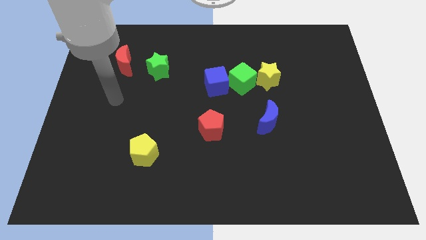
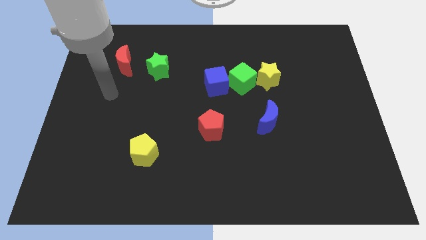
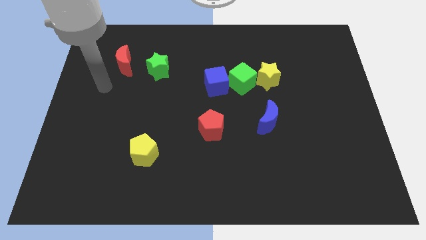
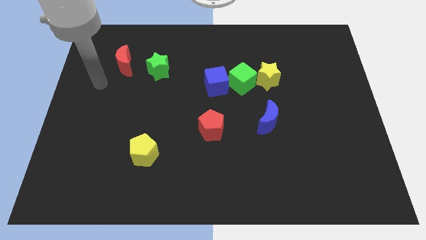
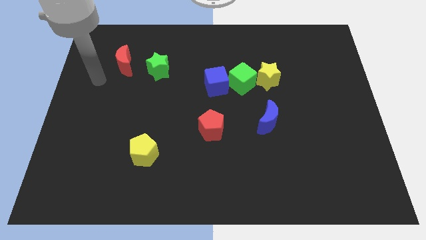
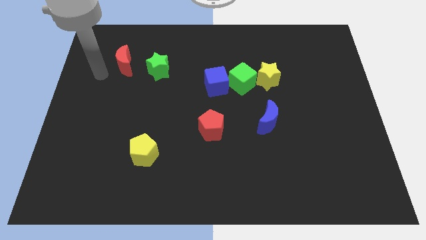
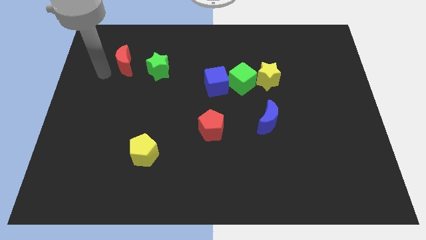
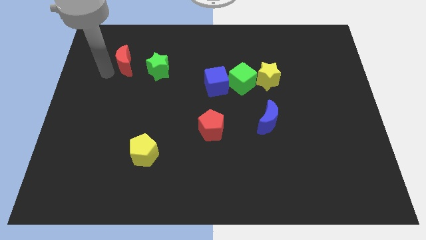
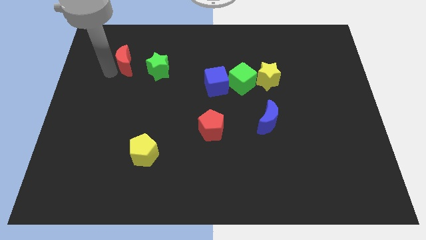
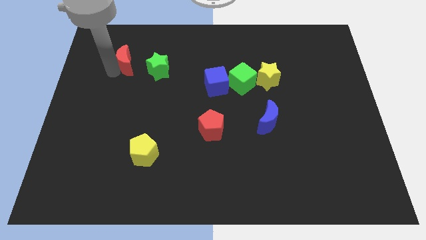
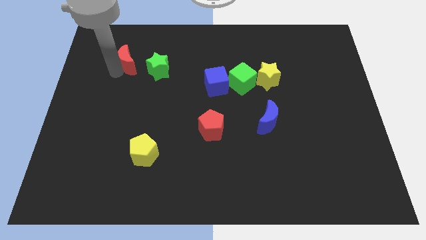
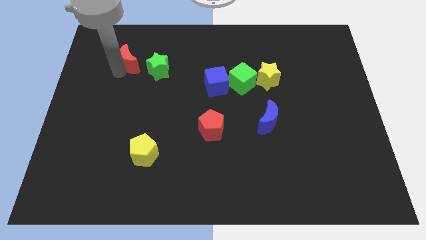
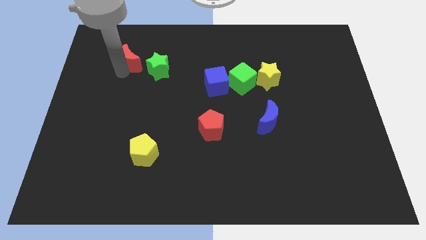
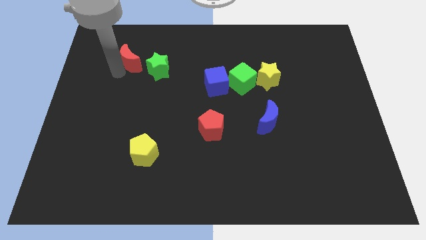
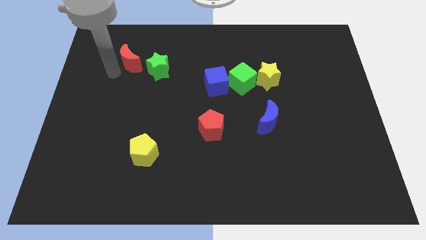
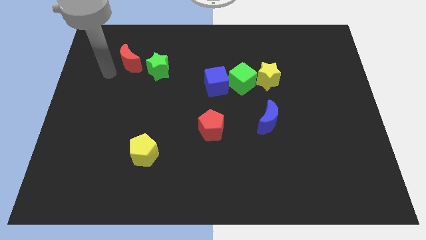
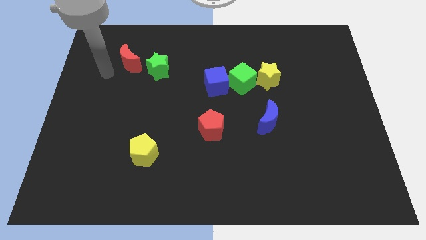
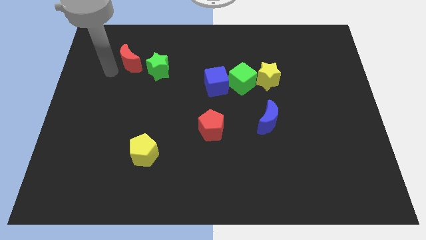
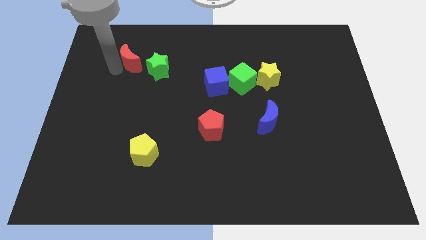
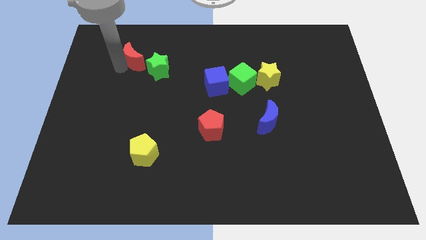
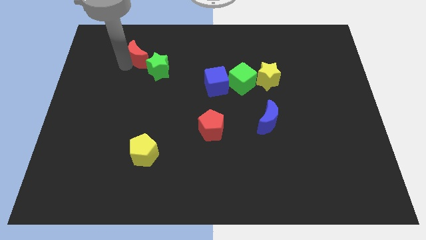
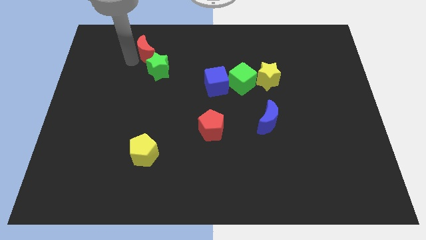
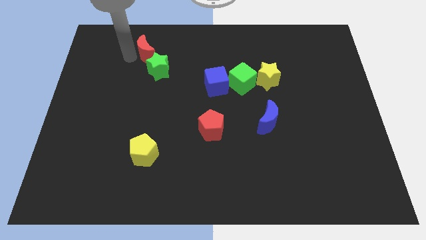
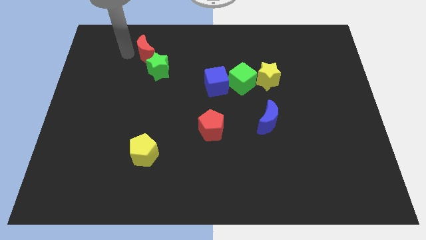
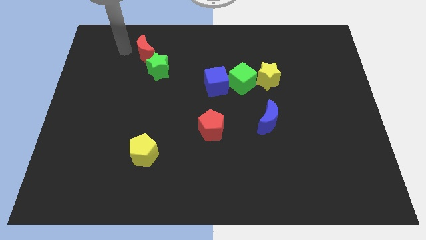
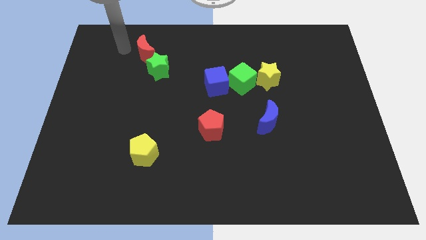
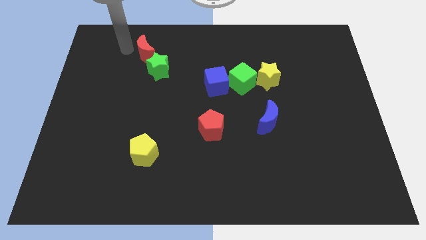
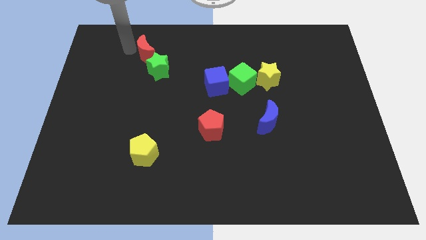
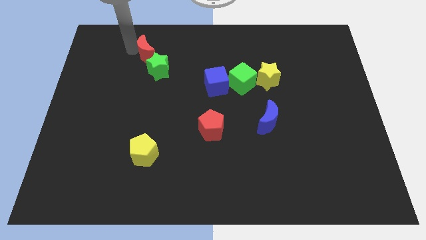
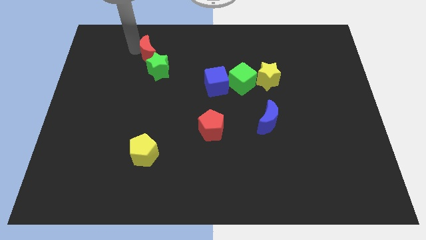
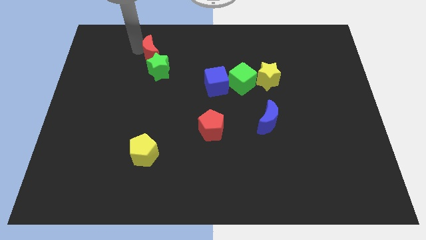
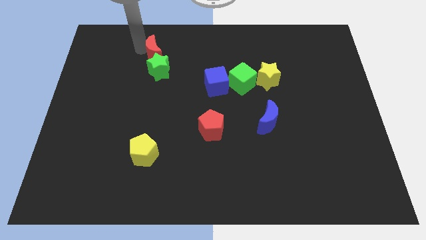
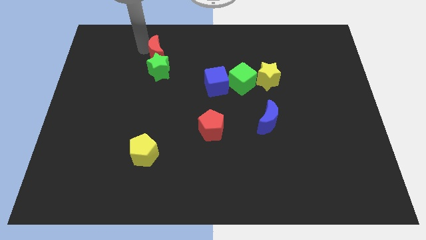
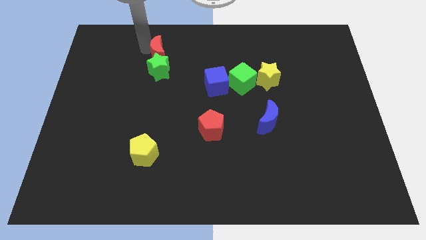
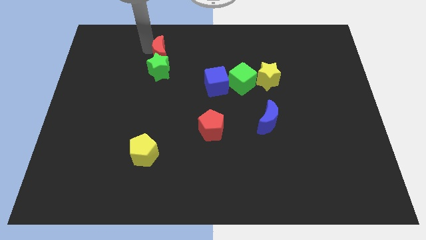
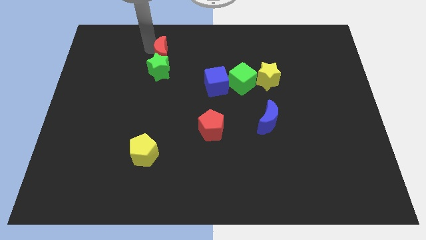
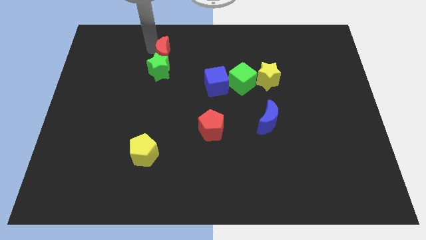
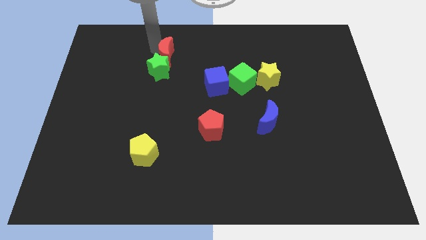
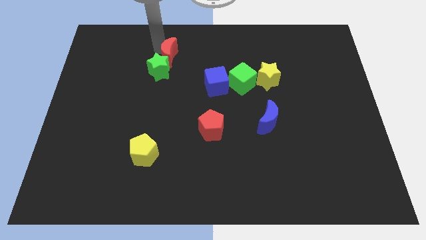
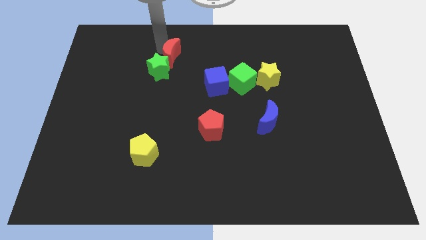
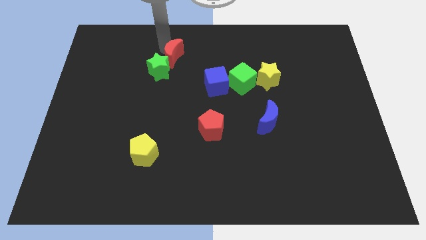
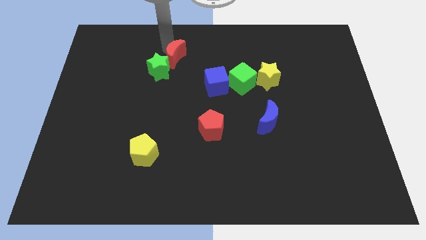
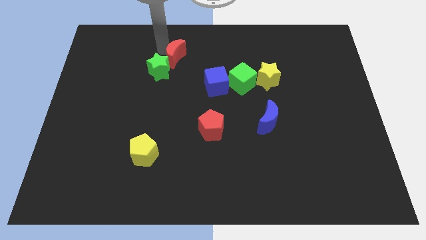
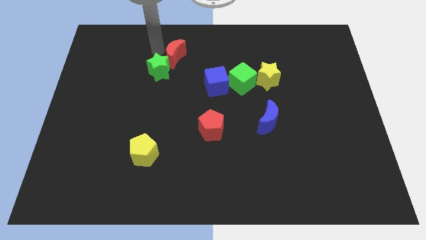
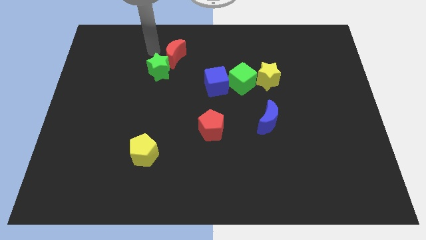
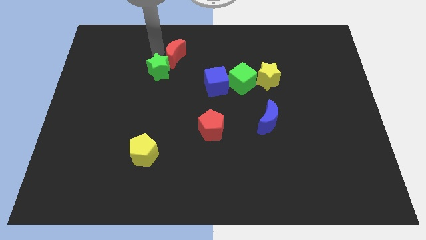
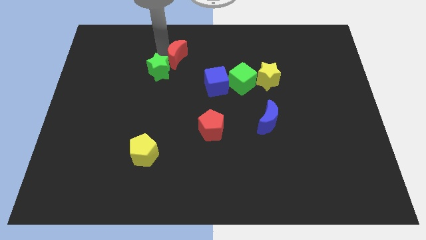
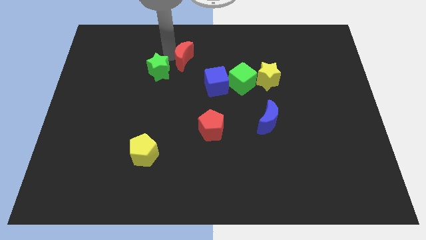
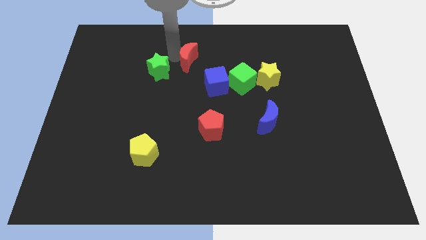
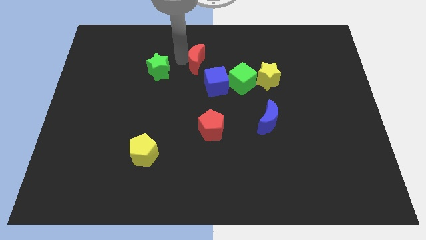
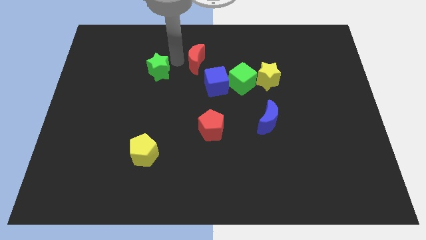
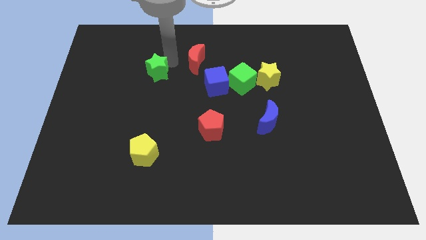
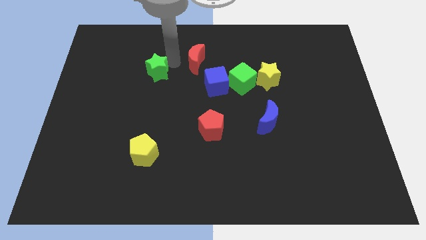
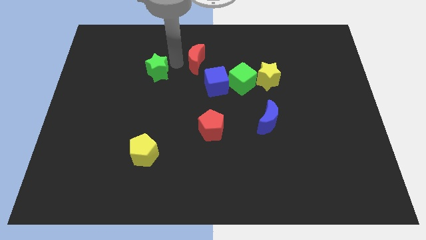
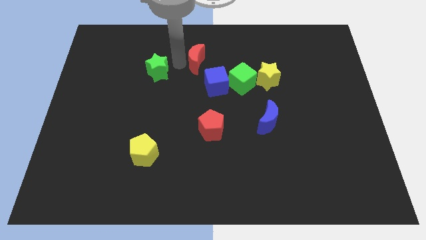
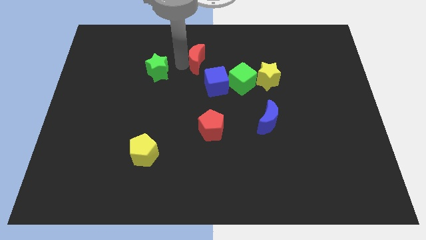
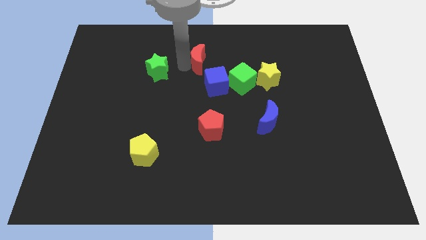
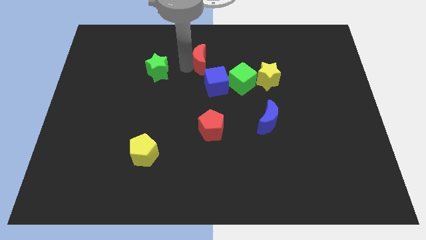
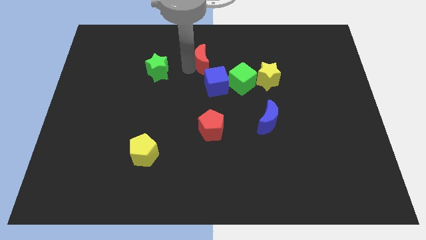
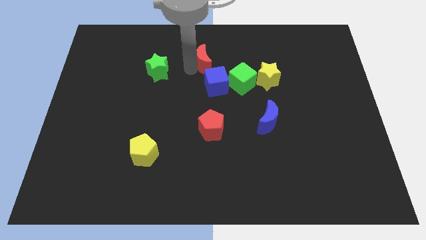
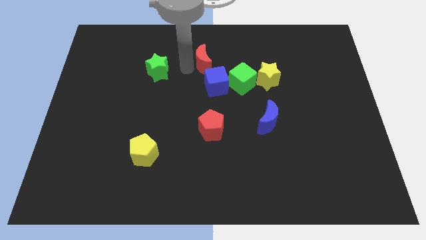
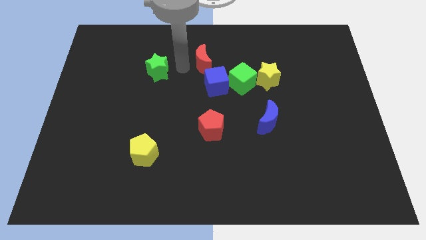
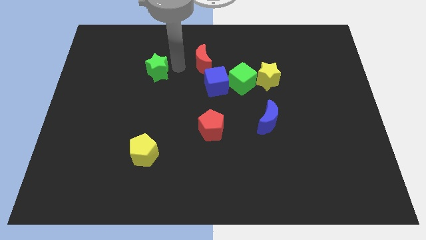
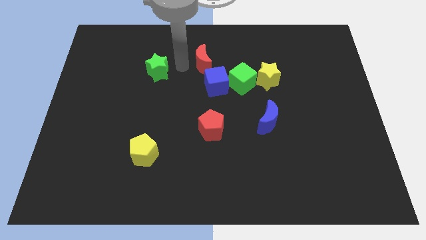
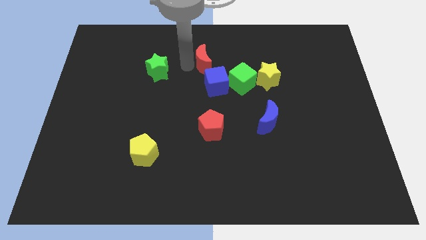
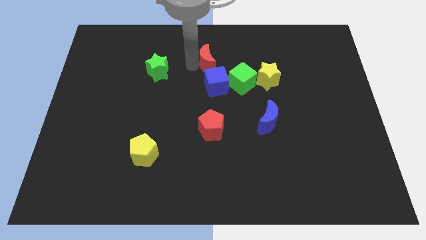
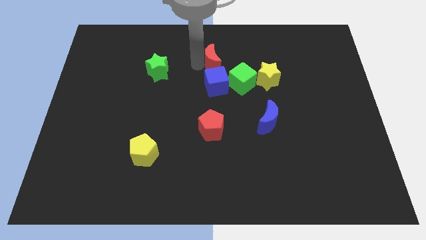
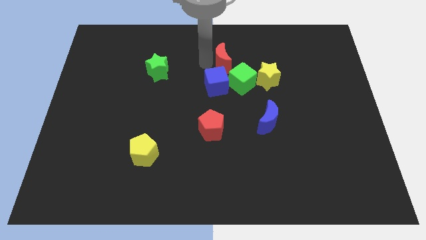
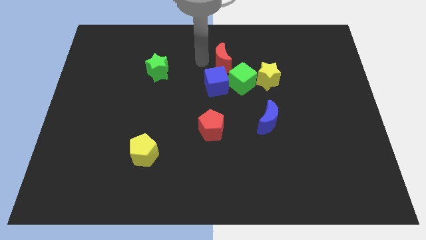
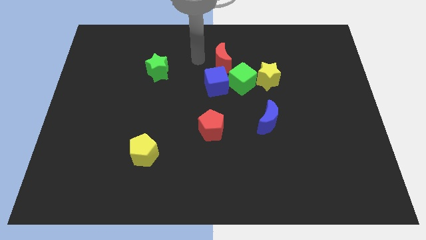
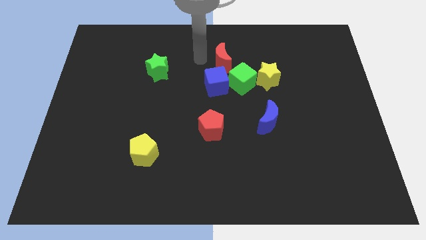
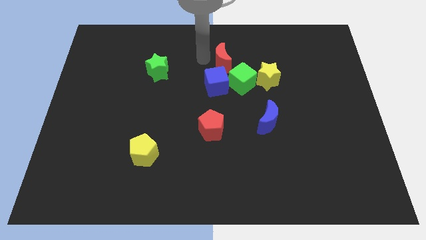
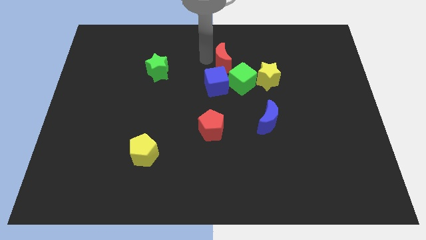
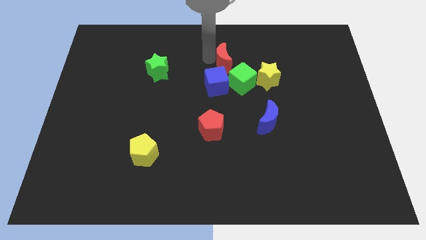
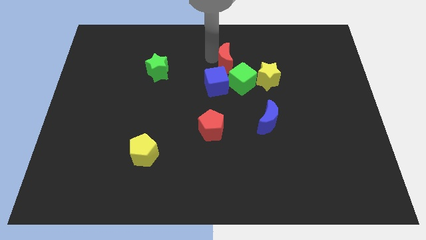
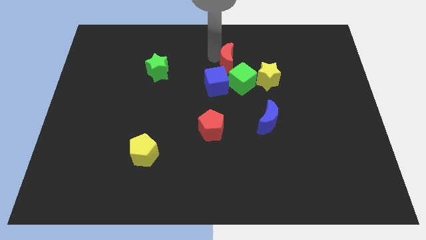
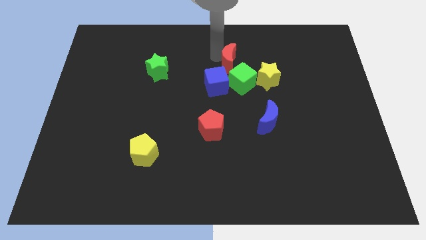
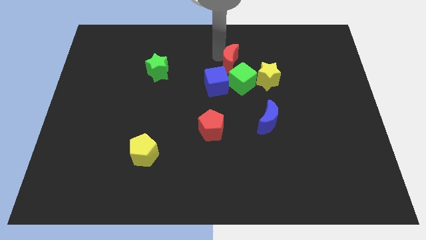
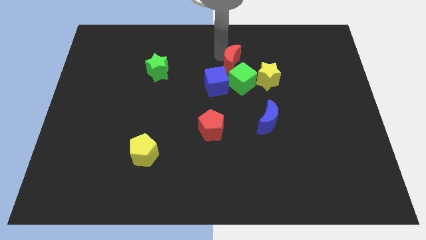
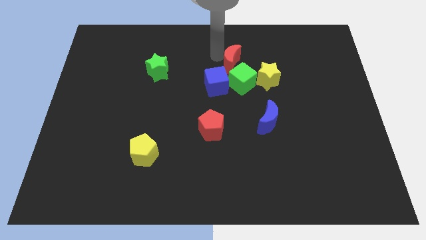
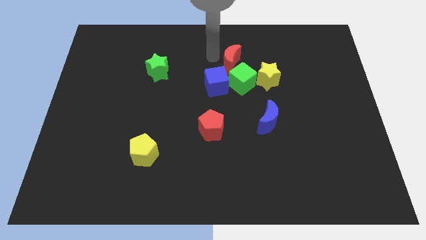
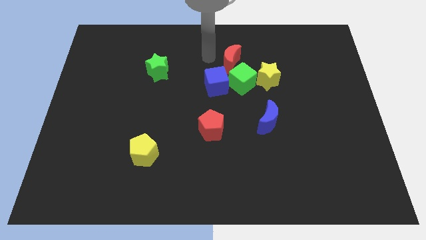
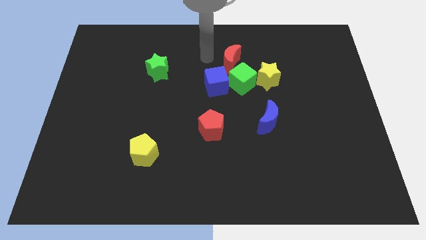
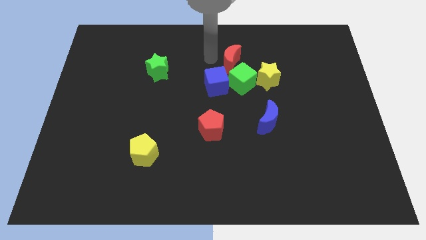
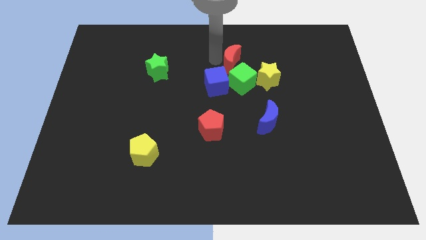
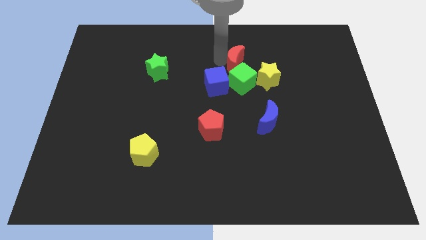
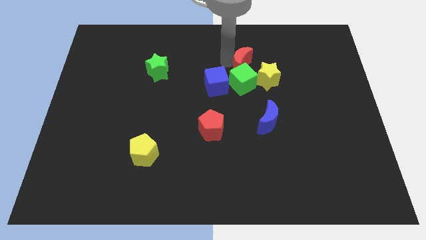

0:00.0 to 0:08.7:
put the red moon to the top right side of the green cube
